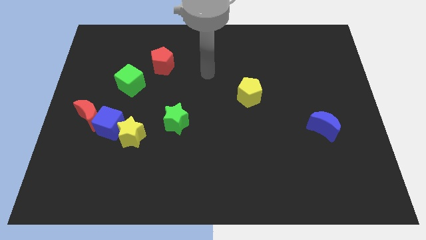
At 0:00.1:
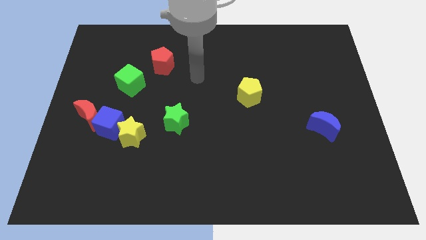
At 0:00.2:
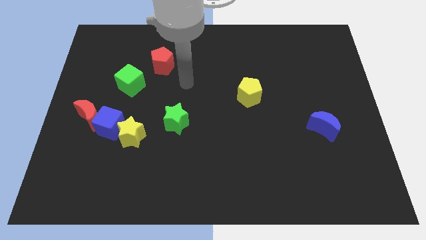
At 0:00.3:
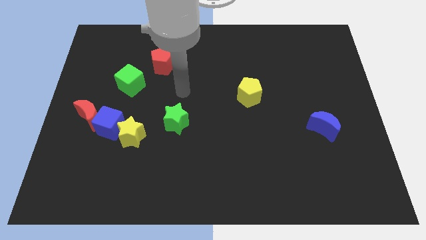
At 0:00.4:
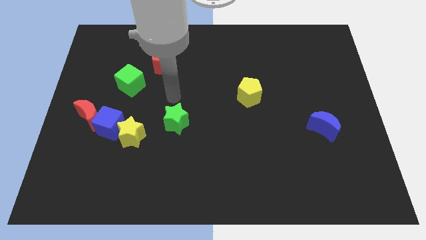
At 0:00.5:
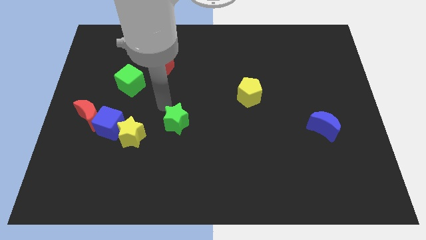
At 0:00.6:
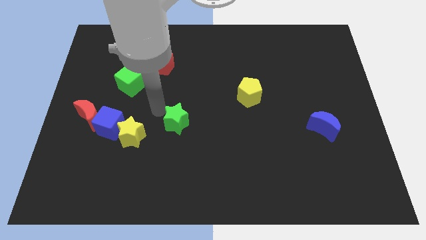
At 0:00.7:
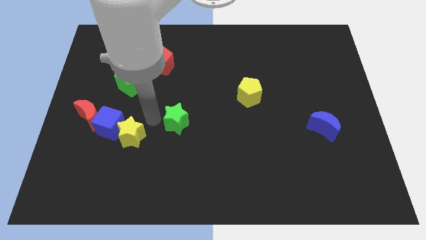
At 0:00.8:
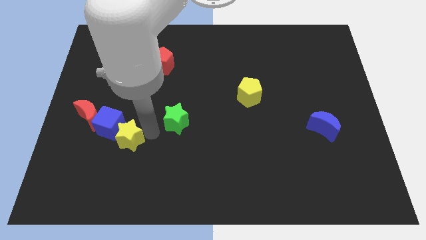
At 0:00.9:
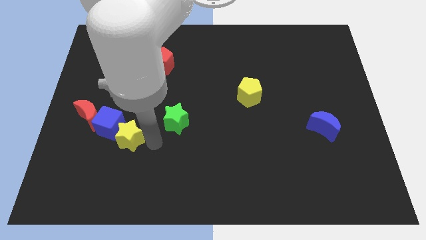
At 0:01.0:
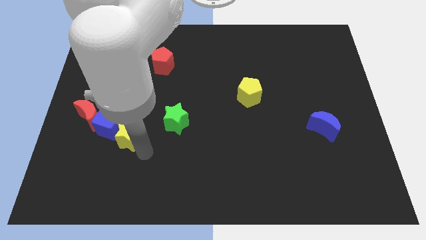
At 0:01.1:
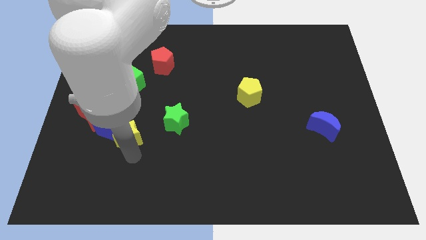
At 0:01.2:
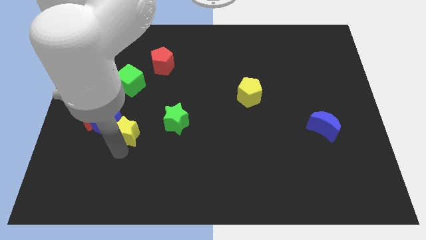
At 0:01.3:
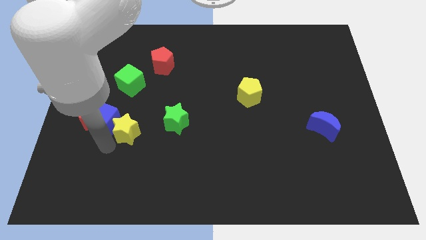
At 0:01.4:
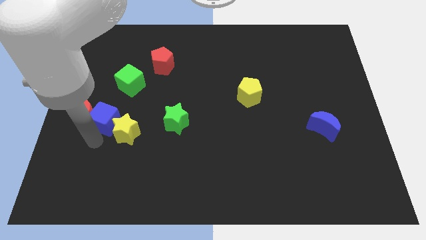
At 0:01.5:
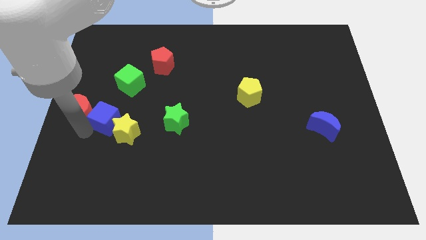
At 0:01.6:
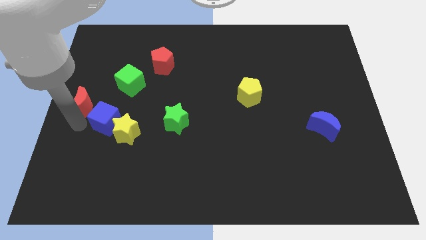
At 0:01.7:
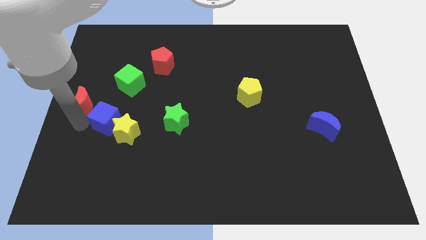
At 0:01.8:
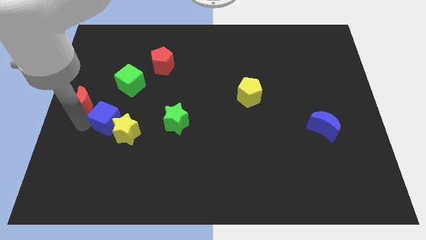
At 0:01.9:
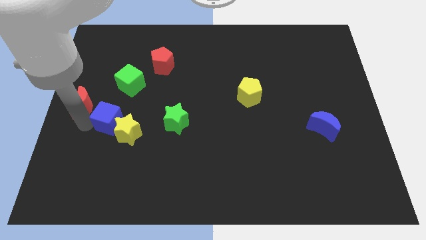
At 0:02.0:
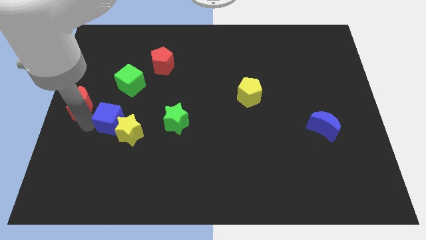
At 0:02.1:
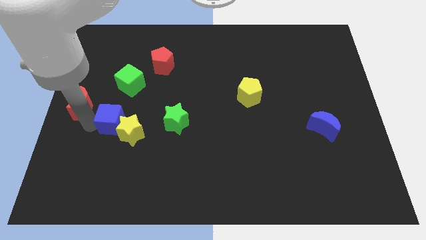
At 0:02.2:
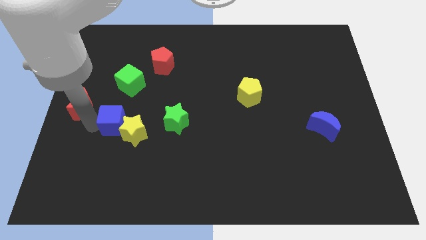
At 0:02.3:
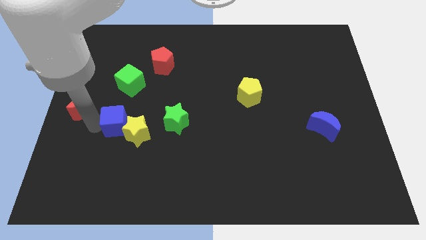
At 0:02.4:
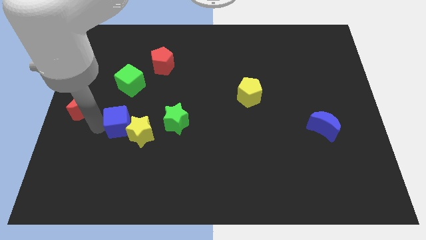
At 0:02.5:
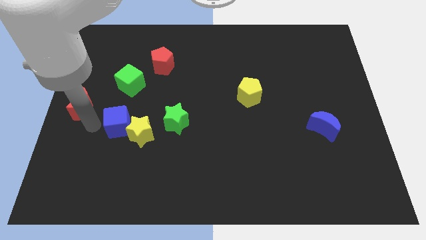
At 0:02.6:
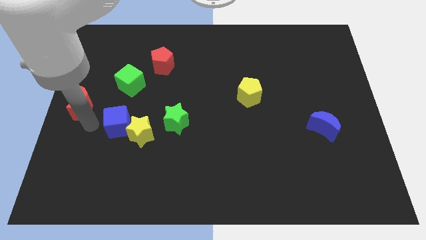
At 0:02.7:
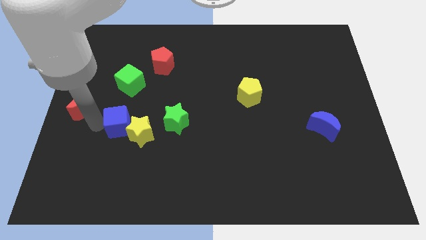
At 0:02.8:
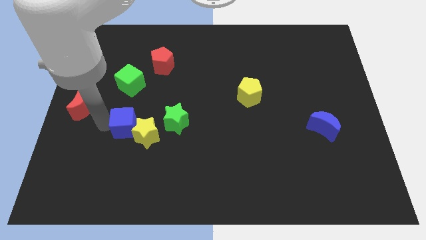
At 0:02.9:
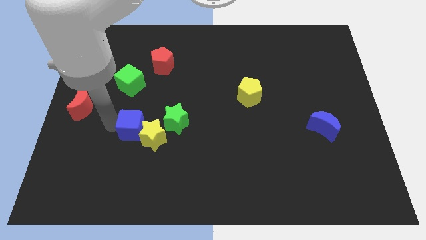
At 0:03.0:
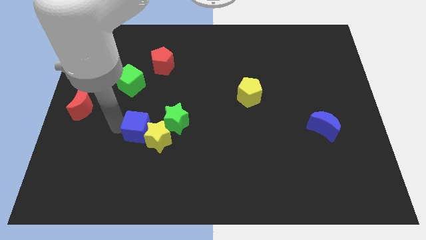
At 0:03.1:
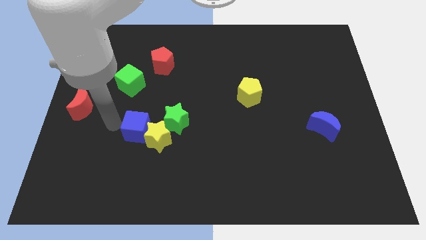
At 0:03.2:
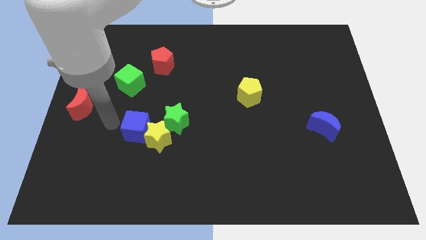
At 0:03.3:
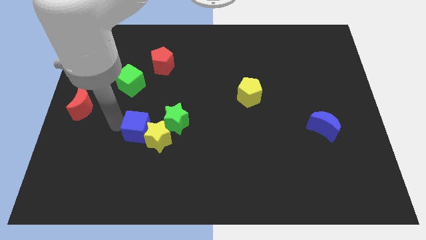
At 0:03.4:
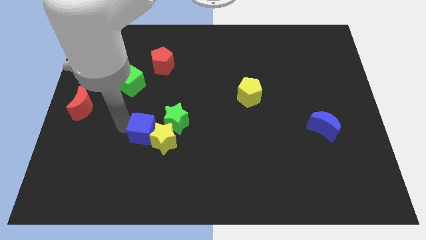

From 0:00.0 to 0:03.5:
move the blue cube a bit to the right

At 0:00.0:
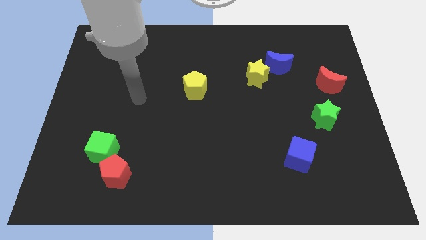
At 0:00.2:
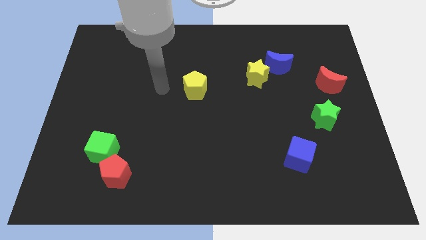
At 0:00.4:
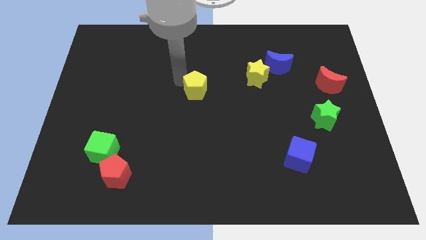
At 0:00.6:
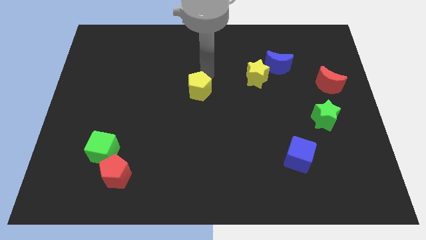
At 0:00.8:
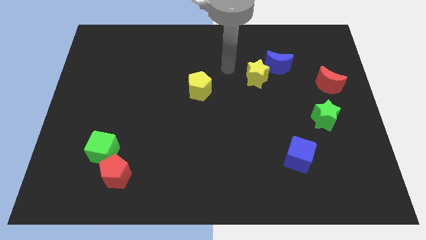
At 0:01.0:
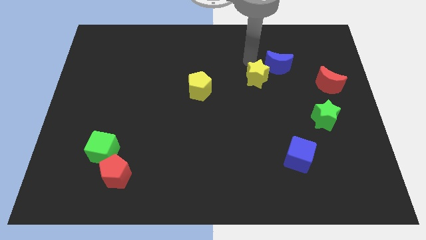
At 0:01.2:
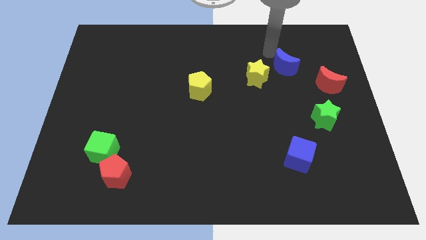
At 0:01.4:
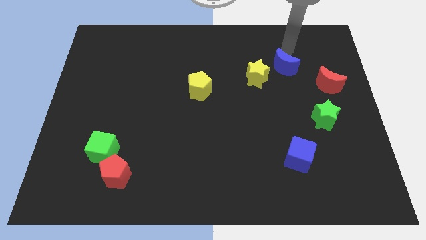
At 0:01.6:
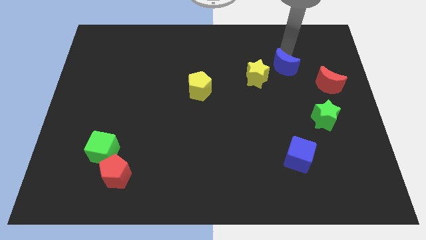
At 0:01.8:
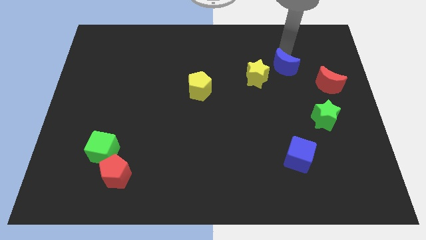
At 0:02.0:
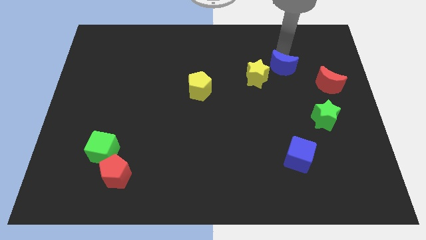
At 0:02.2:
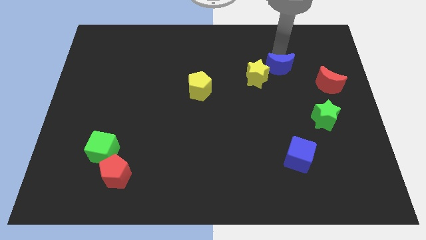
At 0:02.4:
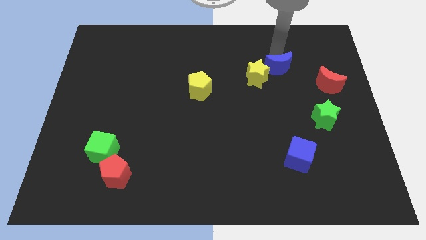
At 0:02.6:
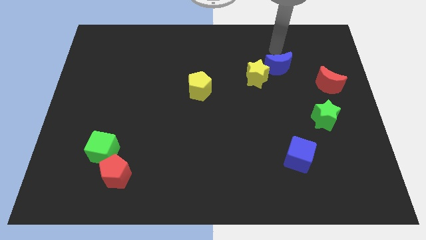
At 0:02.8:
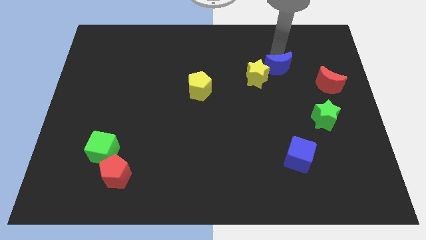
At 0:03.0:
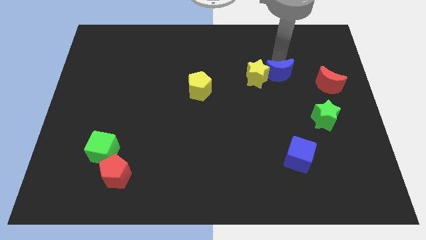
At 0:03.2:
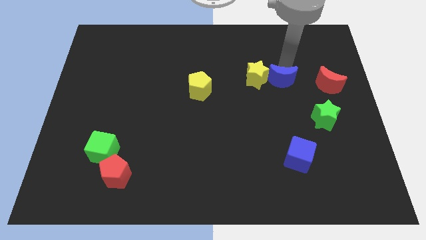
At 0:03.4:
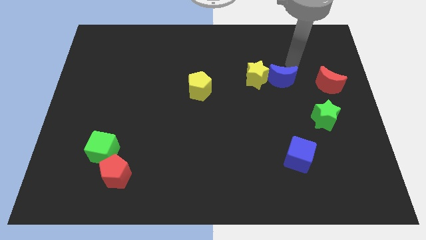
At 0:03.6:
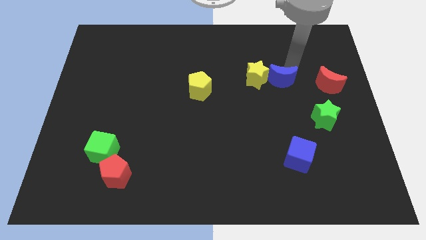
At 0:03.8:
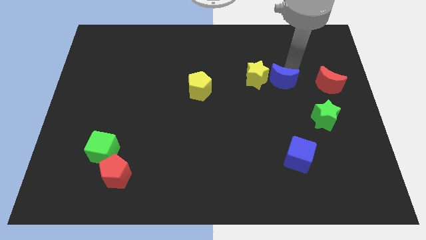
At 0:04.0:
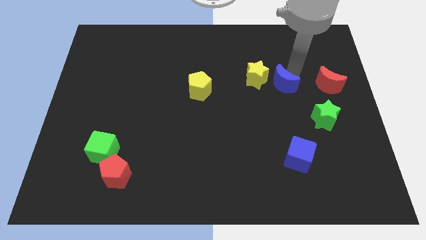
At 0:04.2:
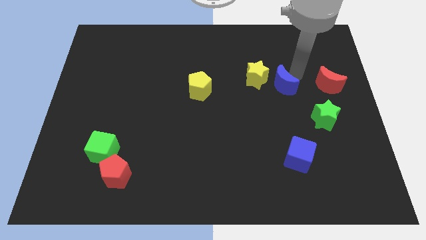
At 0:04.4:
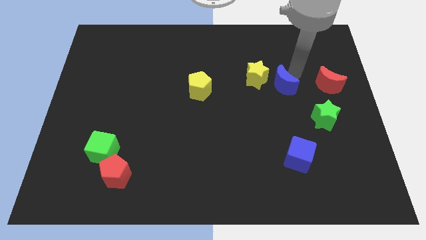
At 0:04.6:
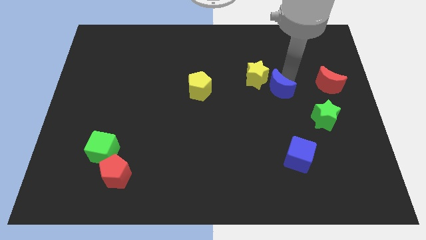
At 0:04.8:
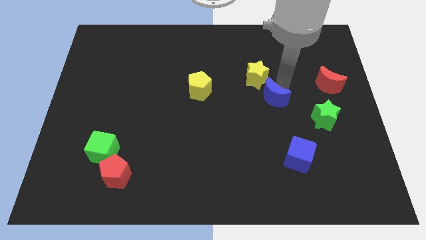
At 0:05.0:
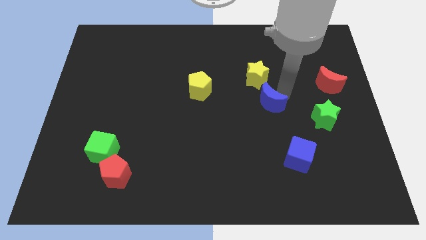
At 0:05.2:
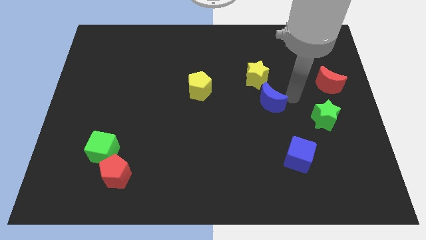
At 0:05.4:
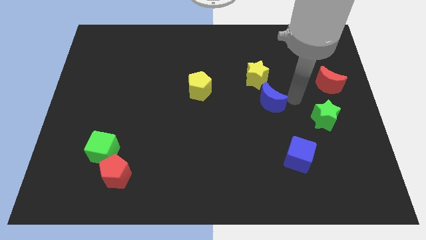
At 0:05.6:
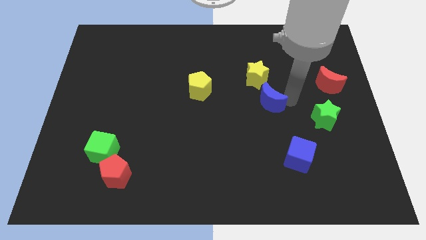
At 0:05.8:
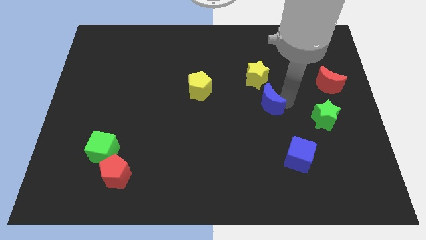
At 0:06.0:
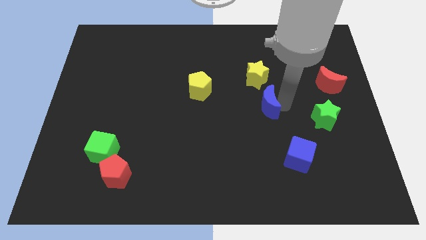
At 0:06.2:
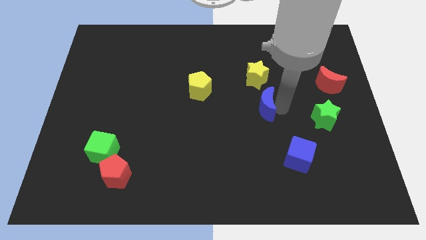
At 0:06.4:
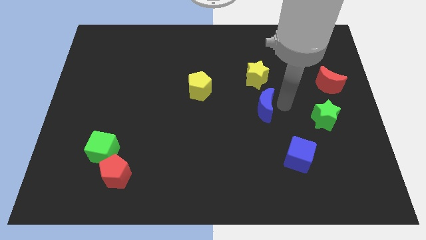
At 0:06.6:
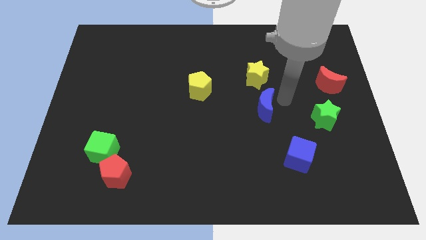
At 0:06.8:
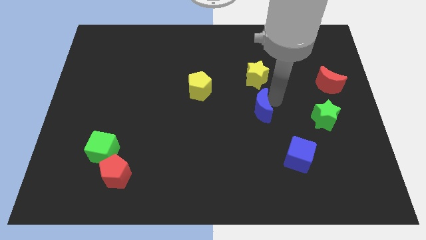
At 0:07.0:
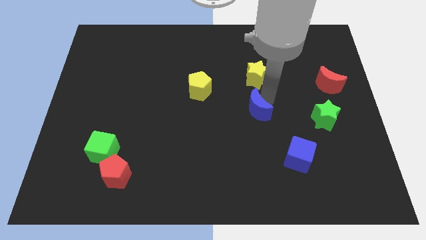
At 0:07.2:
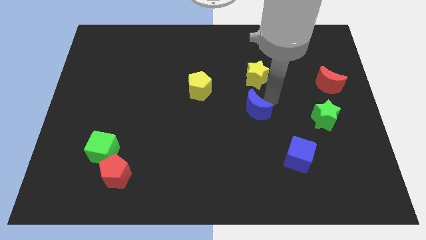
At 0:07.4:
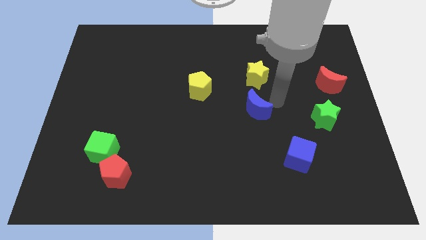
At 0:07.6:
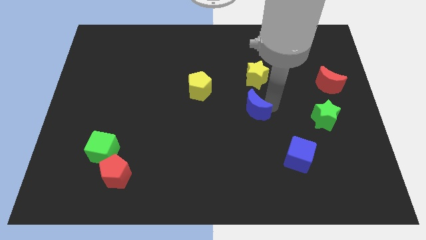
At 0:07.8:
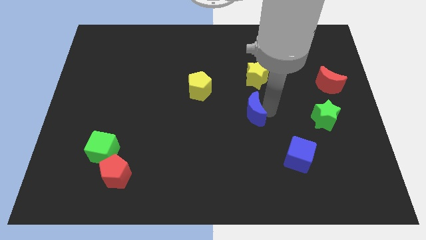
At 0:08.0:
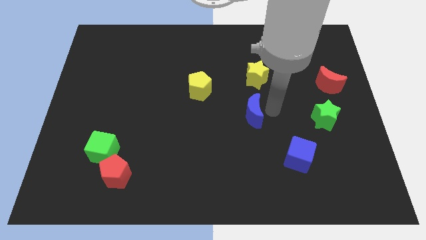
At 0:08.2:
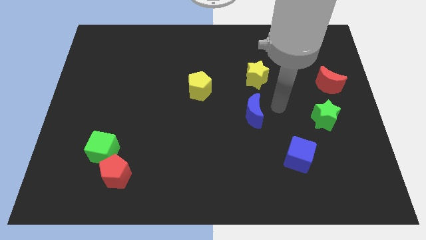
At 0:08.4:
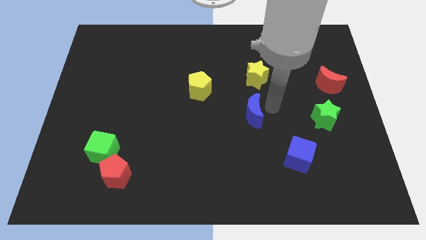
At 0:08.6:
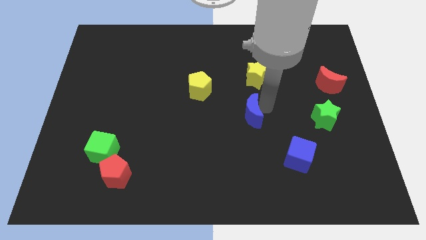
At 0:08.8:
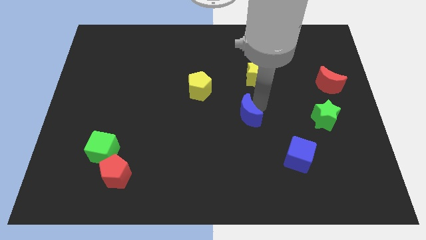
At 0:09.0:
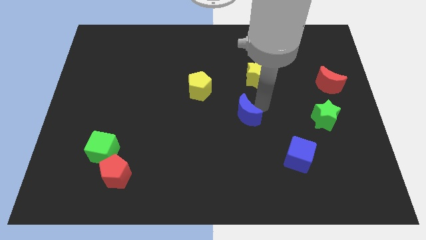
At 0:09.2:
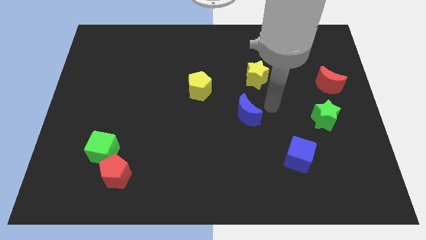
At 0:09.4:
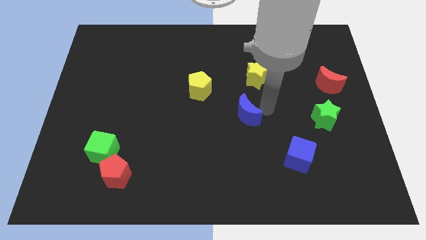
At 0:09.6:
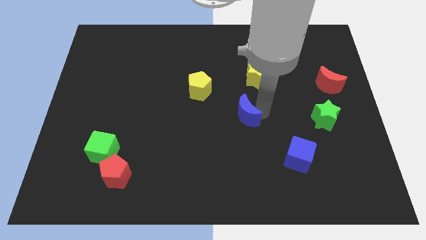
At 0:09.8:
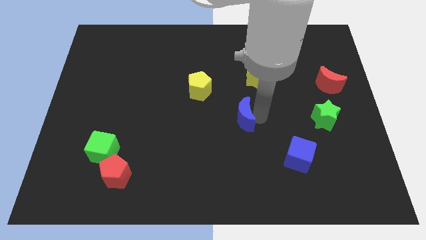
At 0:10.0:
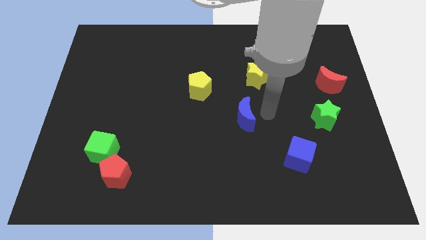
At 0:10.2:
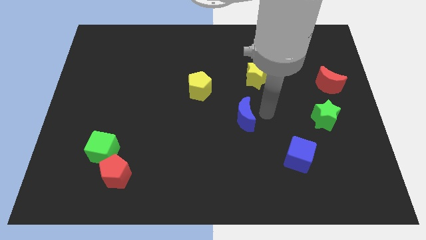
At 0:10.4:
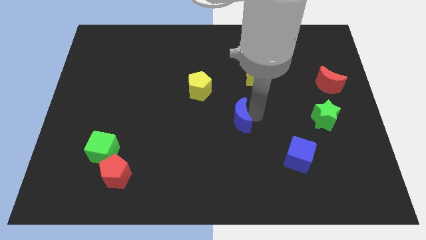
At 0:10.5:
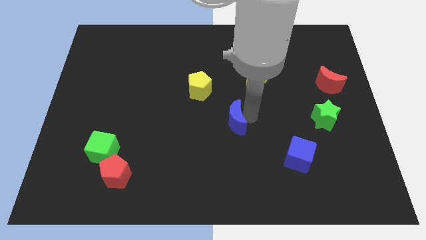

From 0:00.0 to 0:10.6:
move the blue moon down and then to the left
